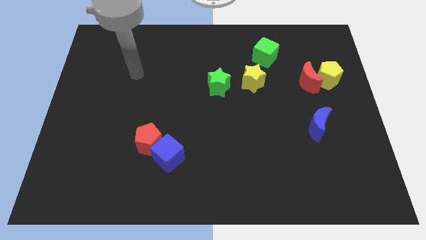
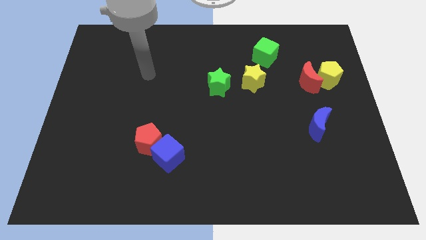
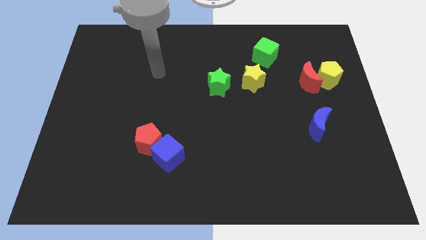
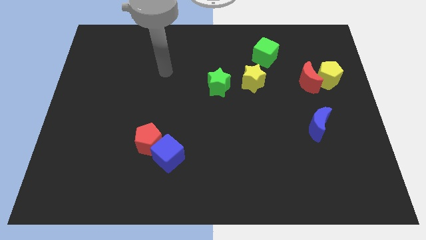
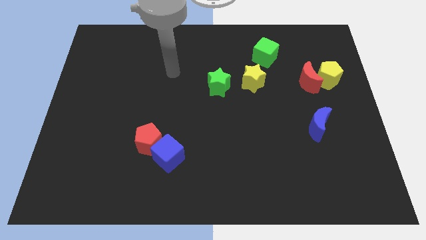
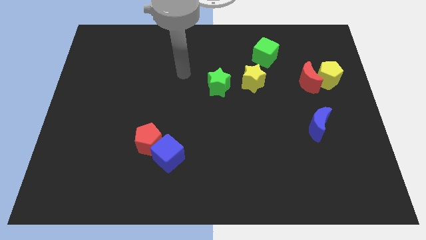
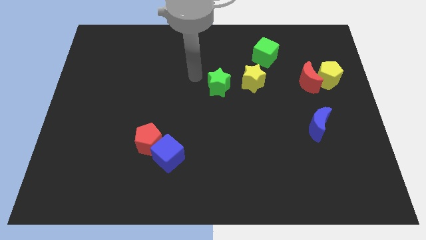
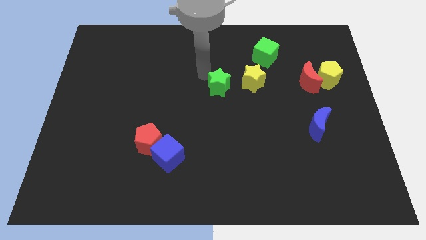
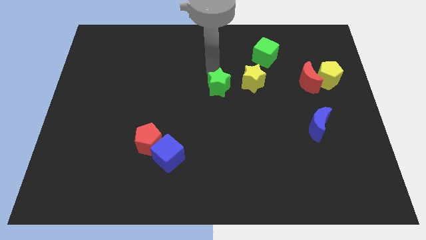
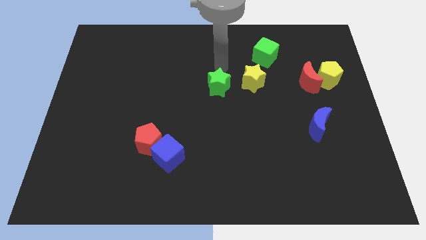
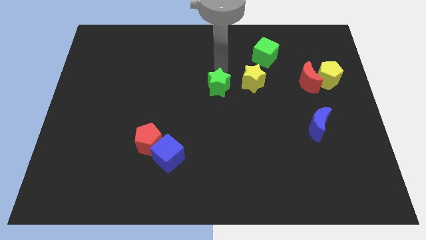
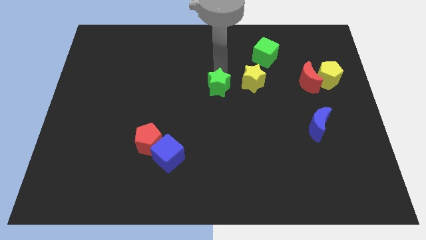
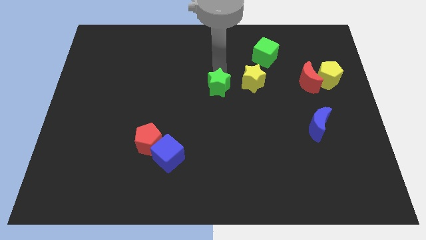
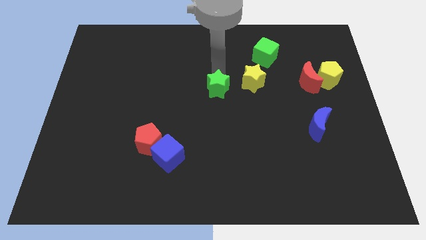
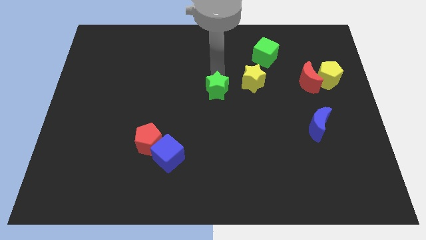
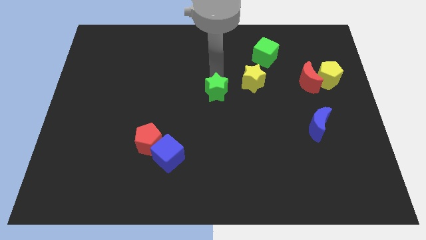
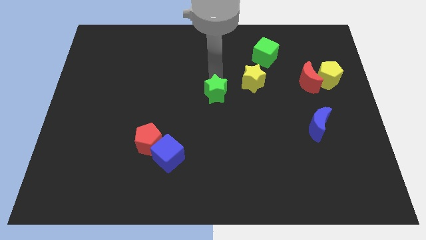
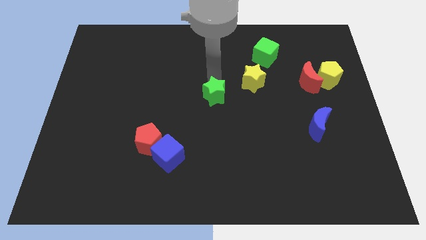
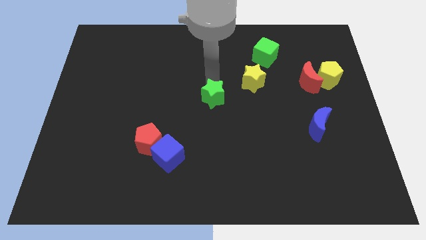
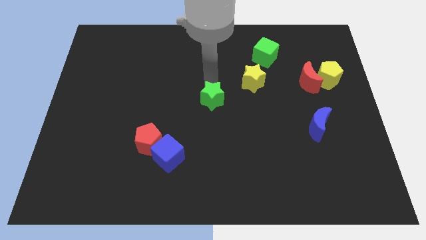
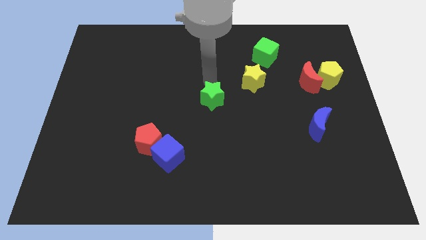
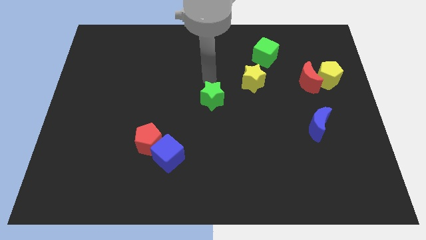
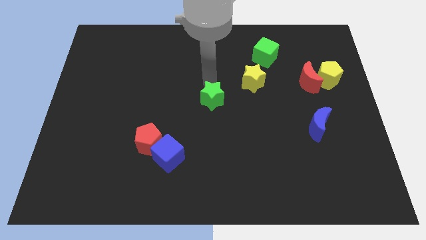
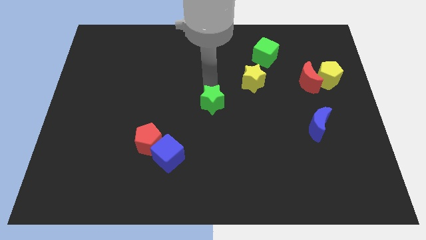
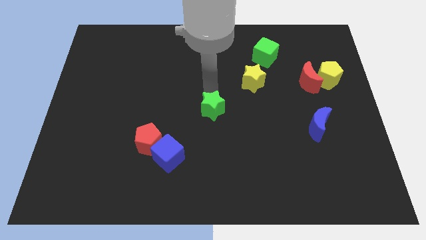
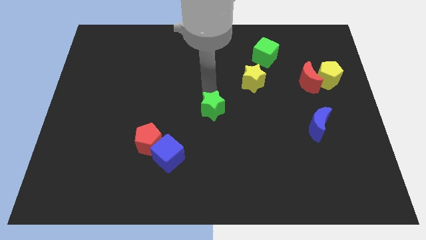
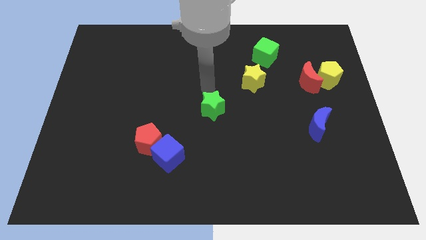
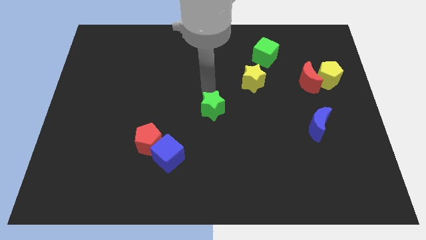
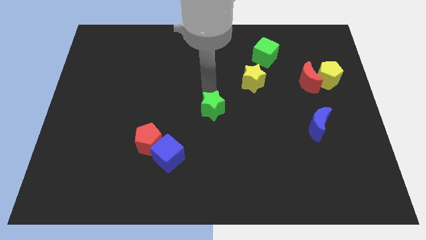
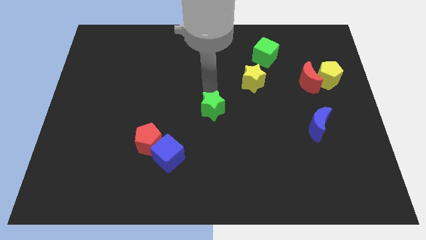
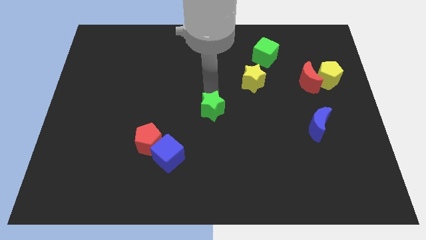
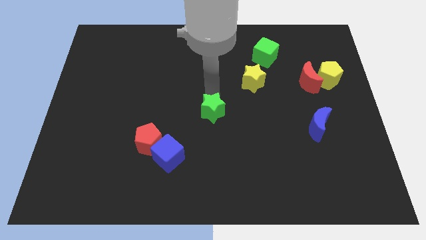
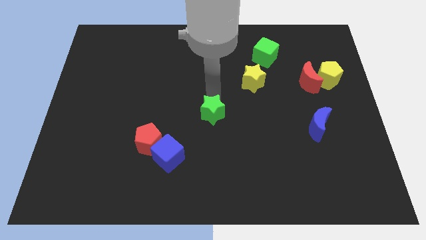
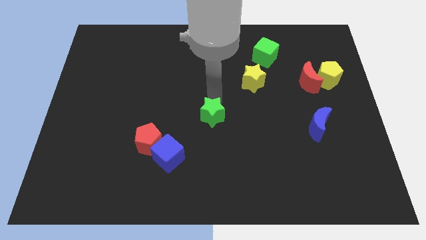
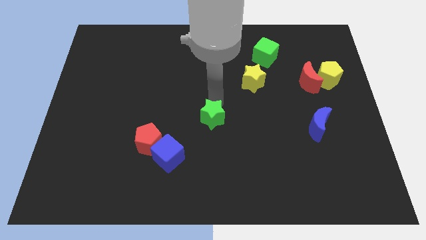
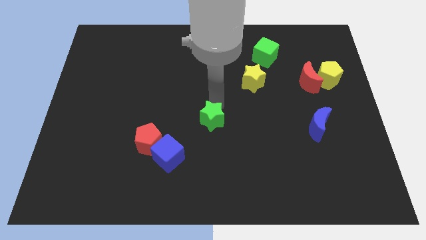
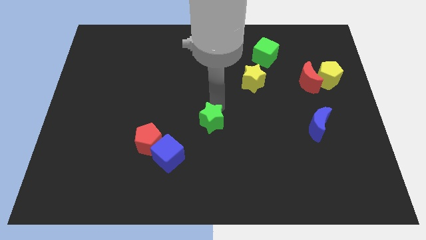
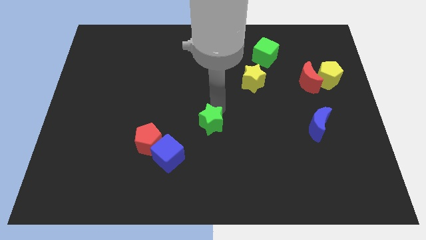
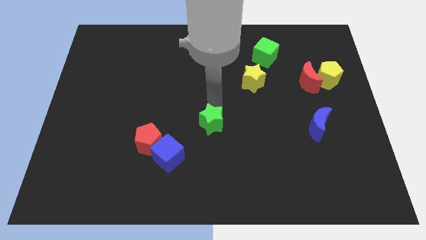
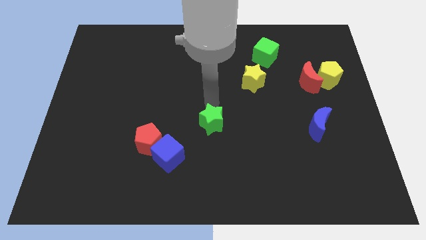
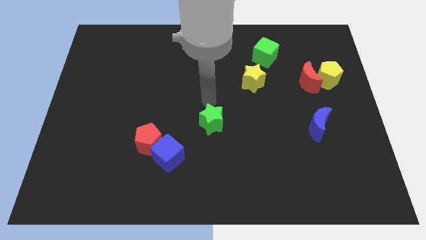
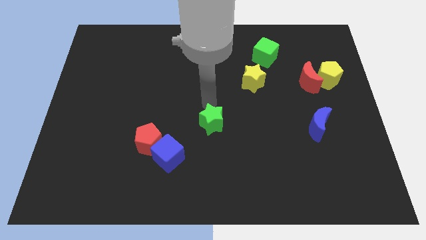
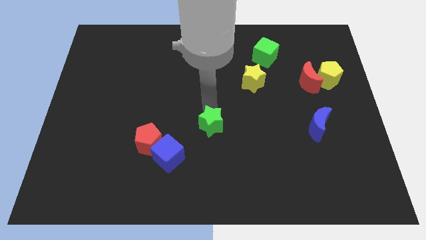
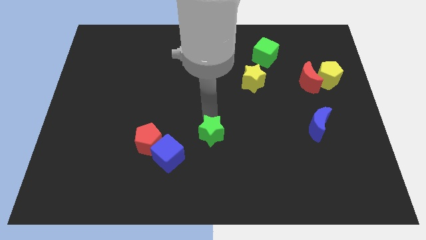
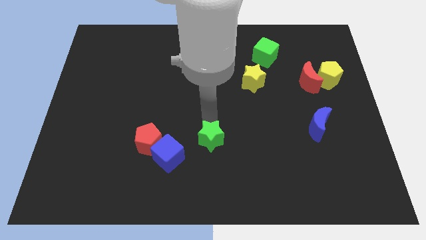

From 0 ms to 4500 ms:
push the green star just right of the blue cube

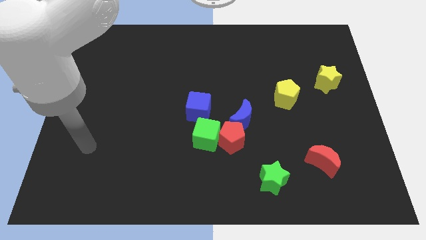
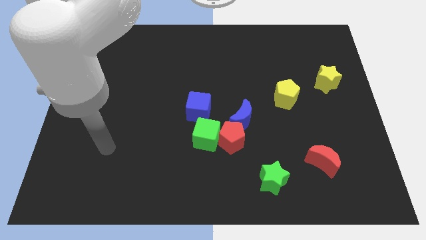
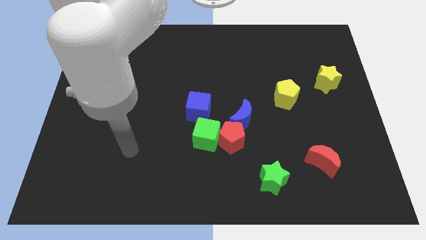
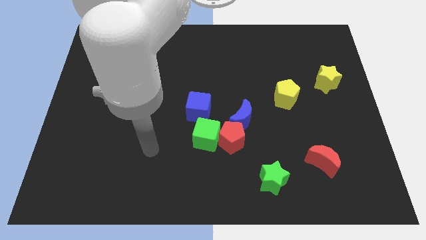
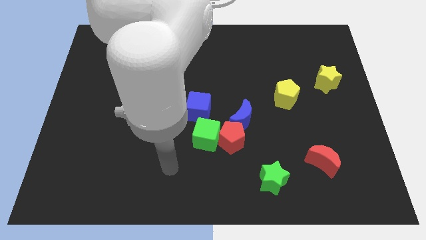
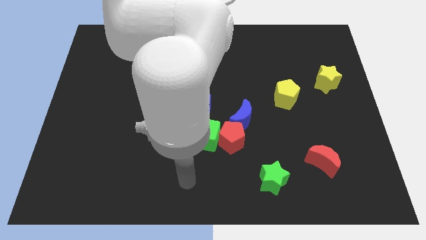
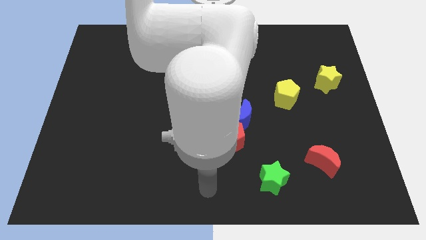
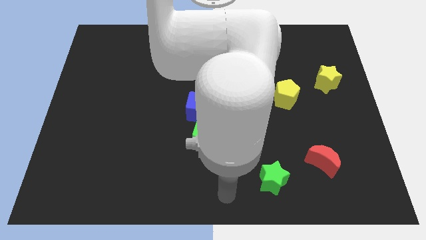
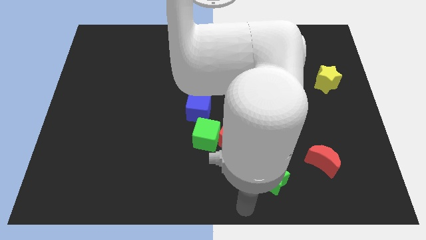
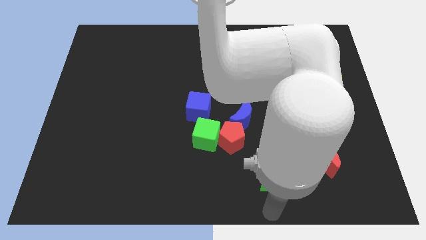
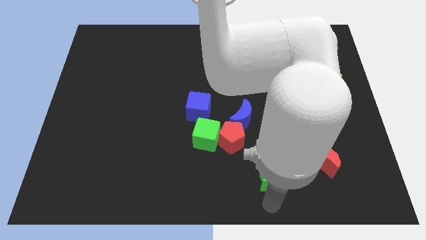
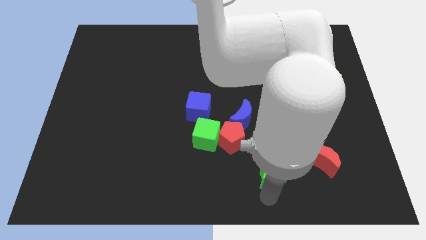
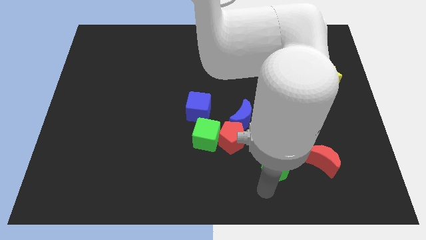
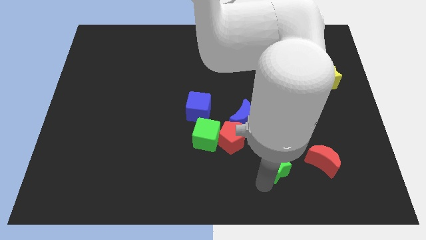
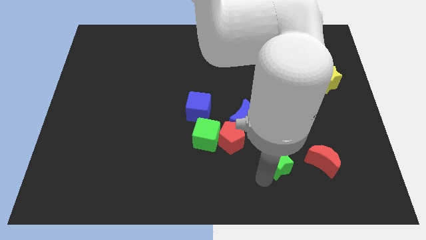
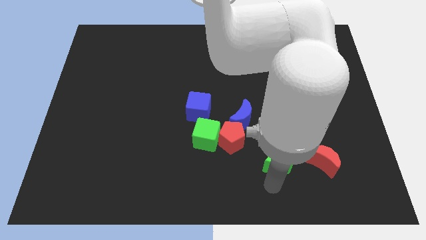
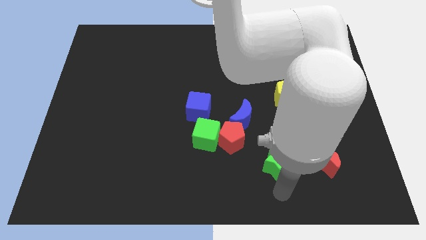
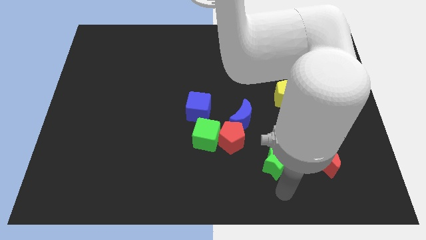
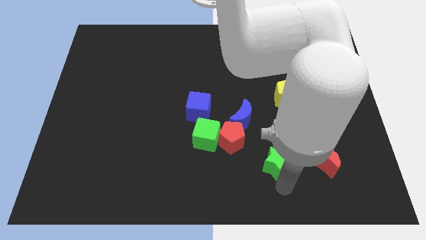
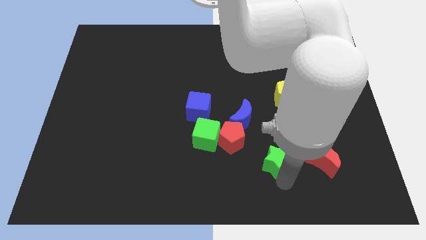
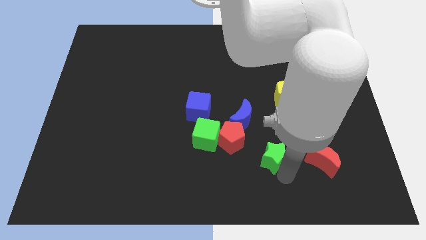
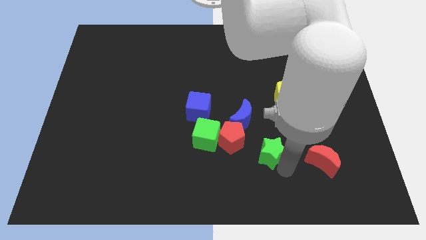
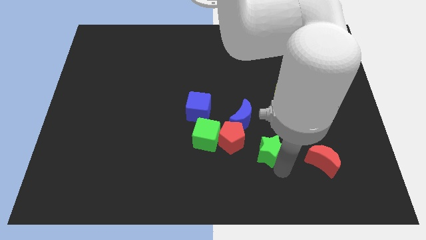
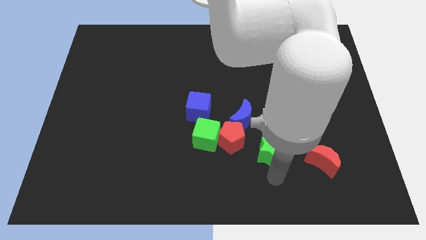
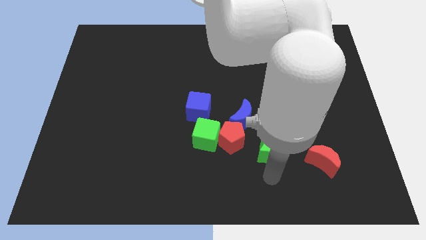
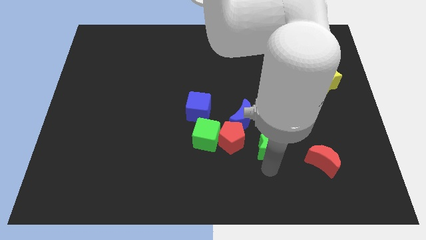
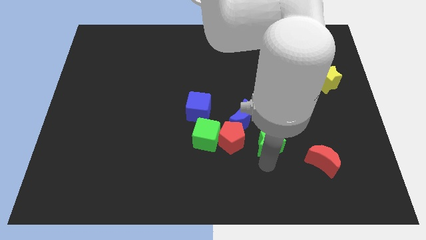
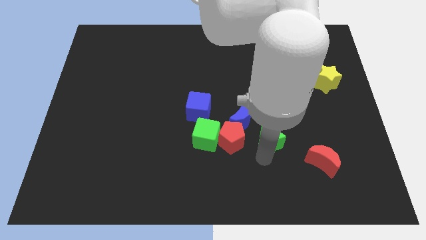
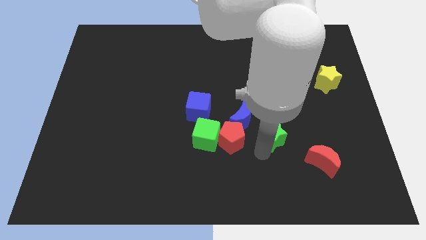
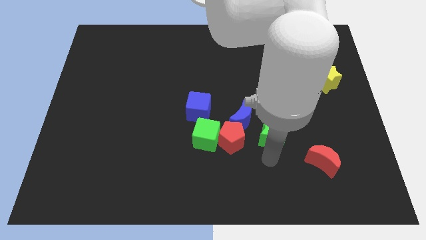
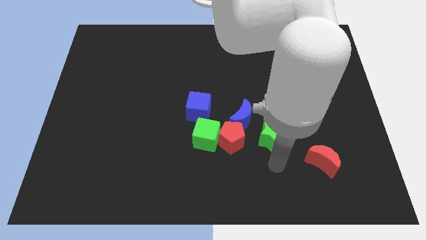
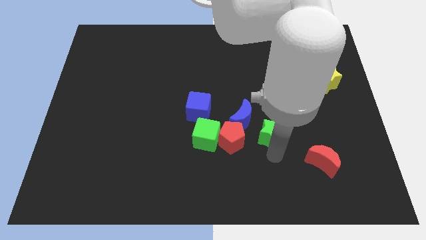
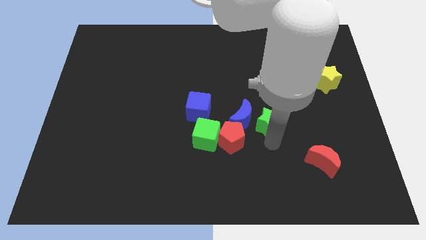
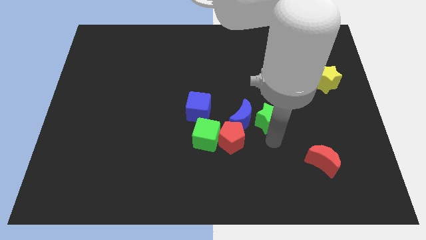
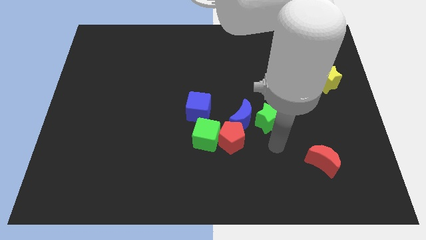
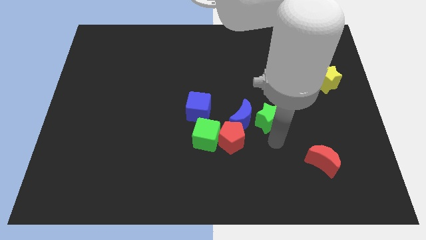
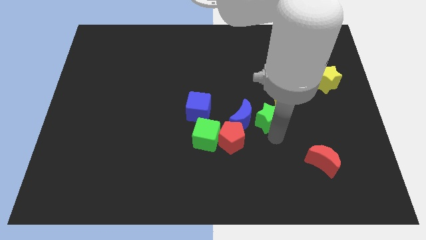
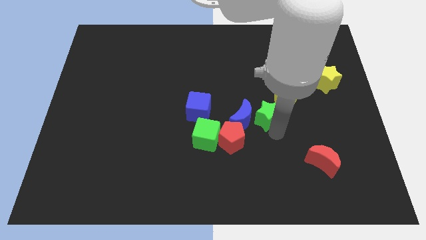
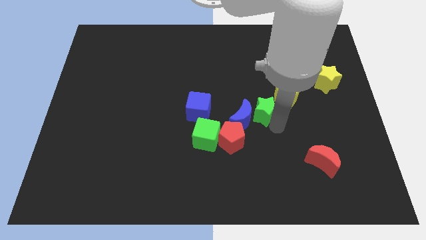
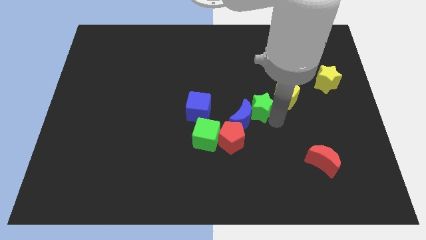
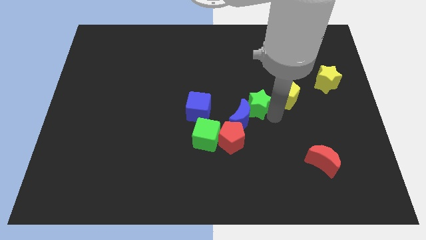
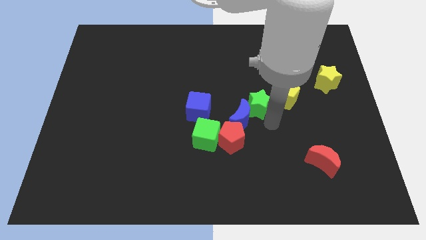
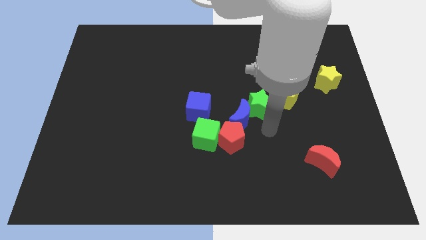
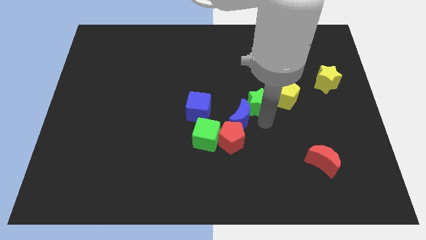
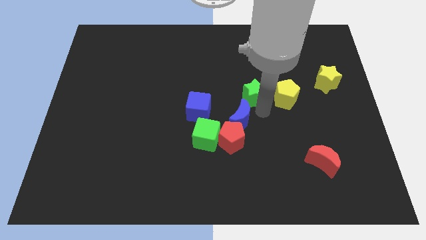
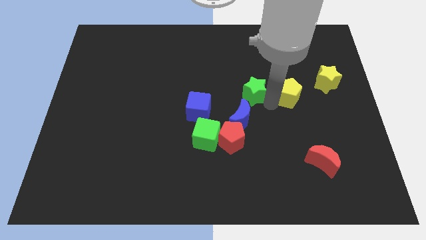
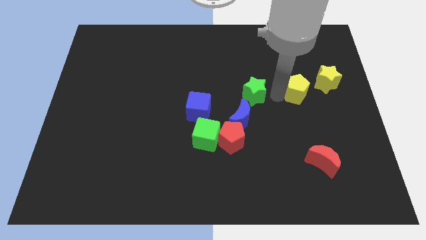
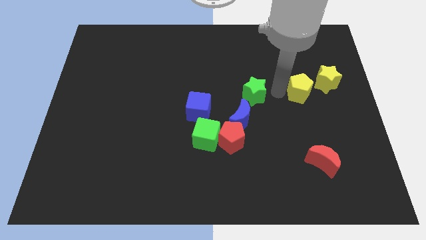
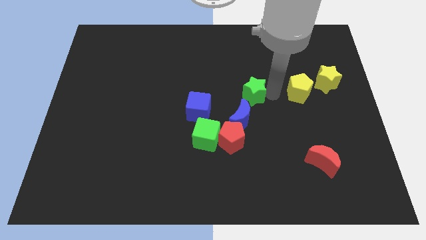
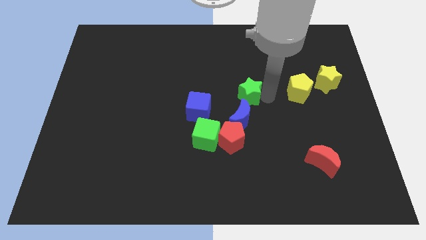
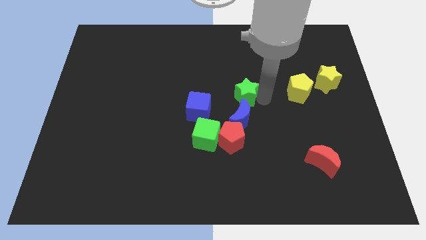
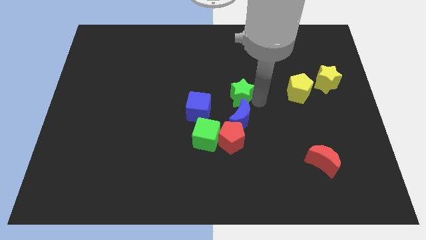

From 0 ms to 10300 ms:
move the green star to the top left of the blue moon
